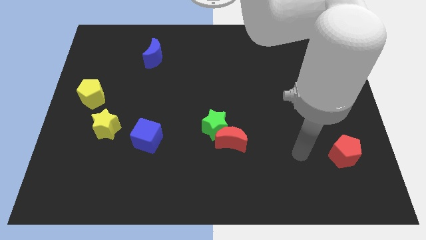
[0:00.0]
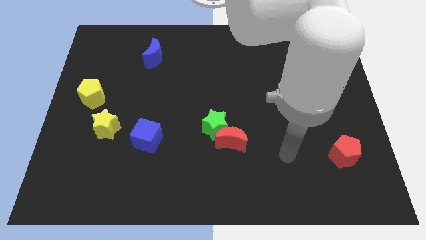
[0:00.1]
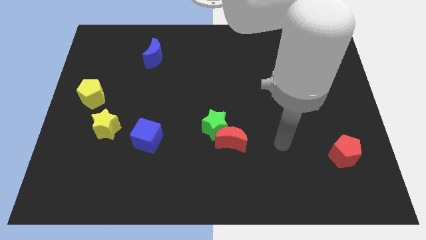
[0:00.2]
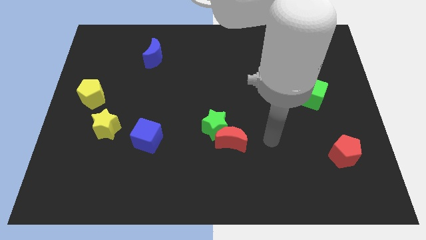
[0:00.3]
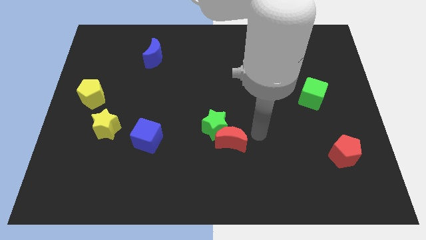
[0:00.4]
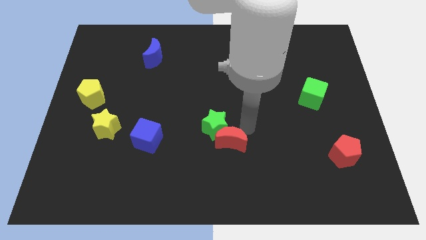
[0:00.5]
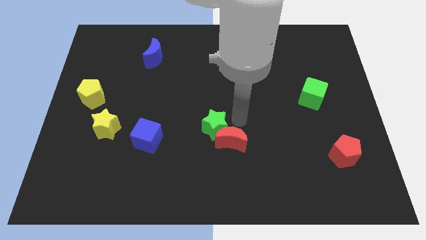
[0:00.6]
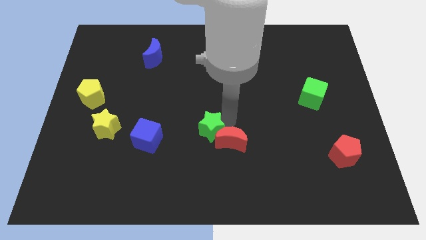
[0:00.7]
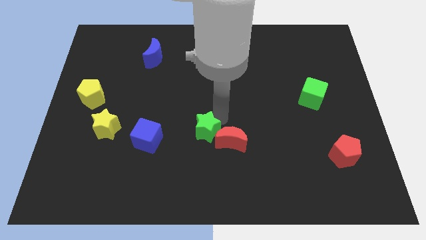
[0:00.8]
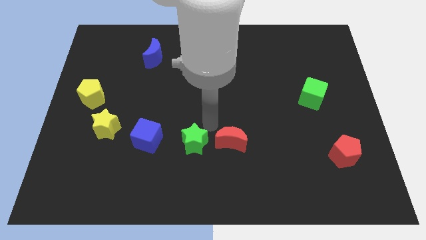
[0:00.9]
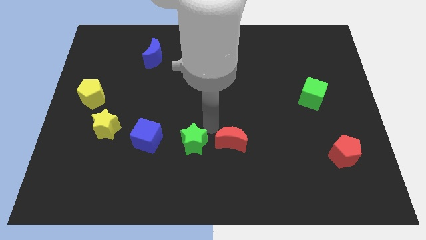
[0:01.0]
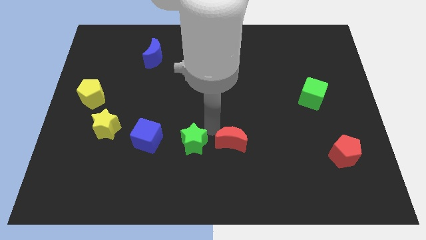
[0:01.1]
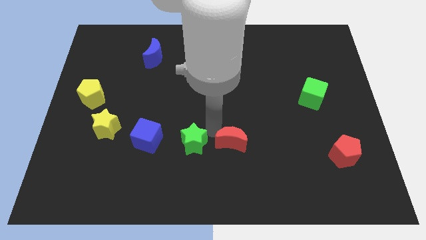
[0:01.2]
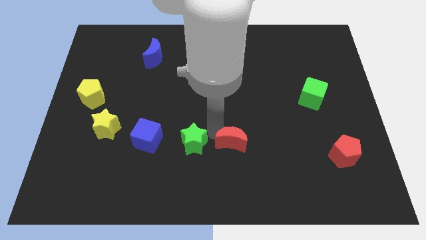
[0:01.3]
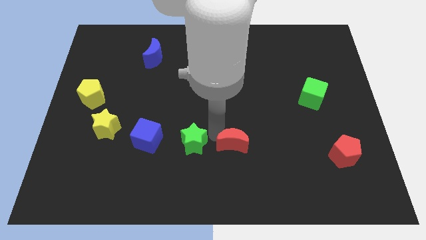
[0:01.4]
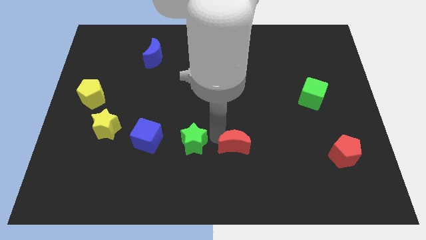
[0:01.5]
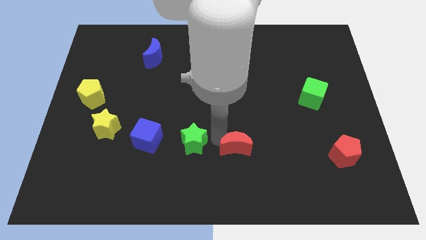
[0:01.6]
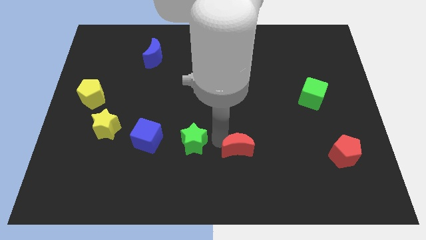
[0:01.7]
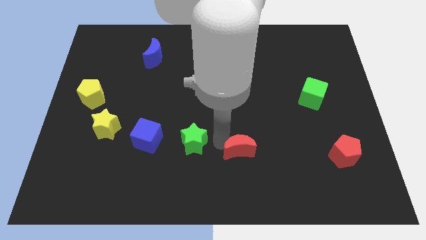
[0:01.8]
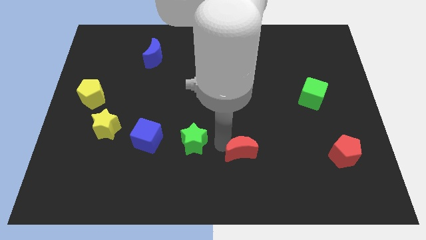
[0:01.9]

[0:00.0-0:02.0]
separate the red moon from the green star

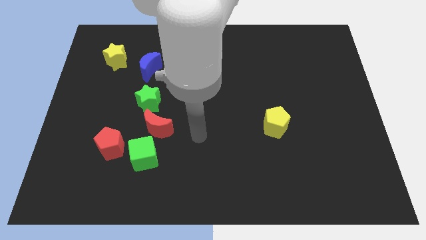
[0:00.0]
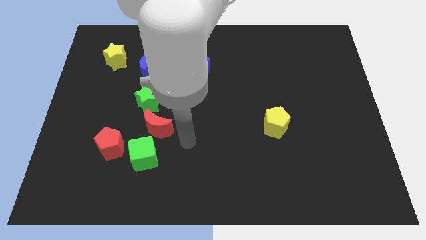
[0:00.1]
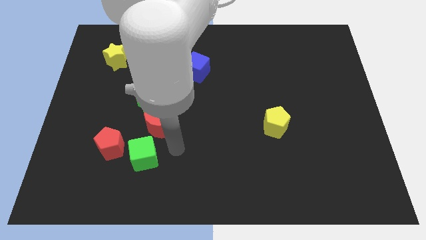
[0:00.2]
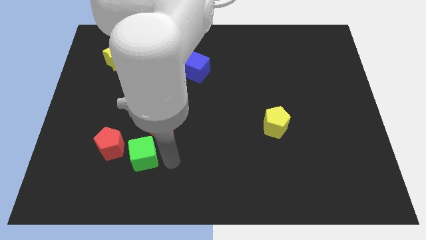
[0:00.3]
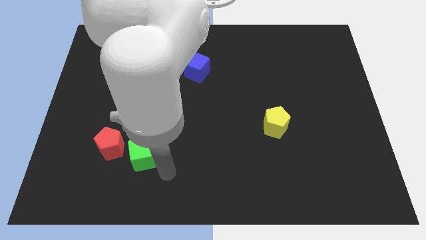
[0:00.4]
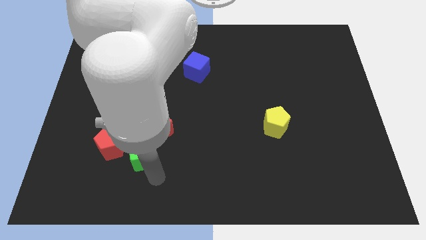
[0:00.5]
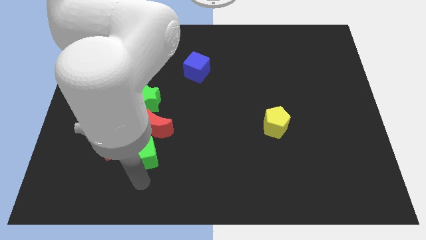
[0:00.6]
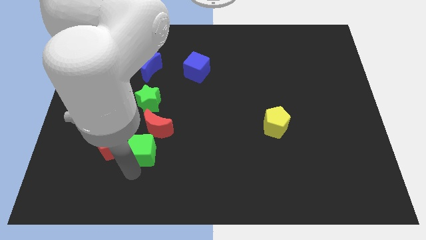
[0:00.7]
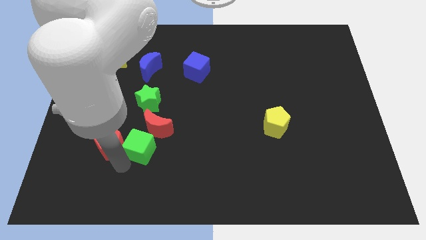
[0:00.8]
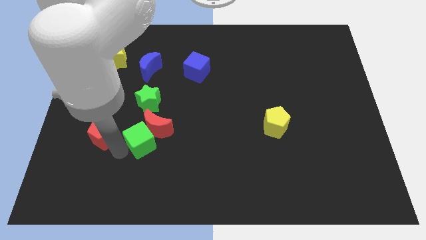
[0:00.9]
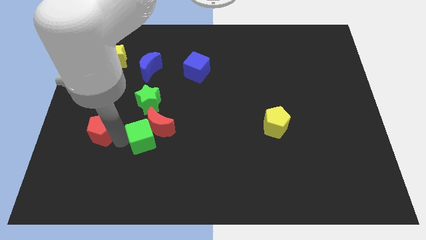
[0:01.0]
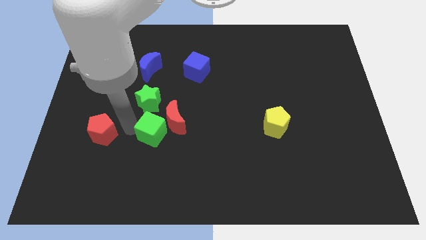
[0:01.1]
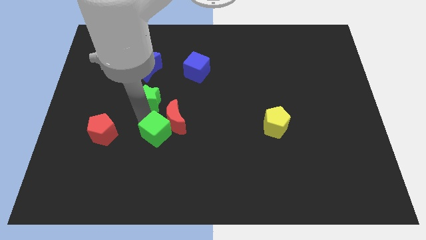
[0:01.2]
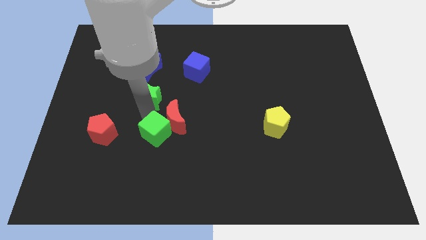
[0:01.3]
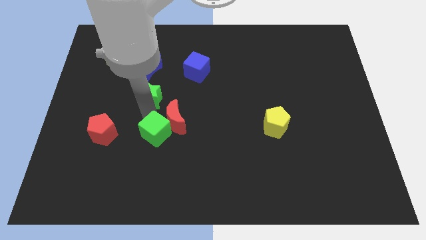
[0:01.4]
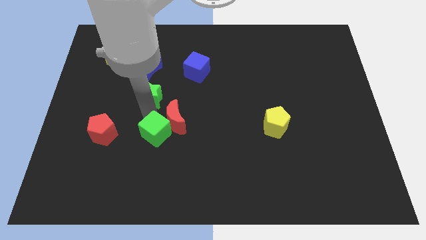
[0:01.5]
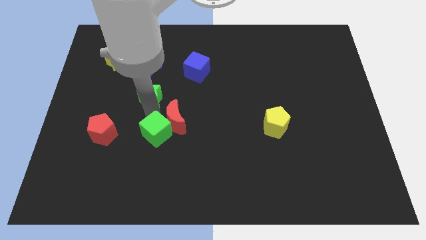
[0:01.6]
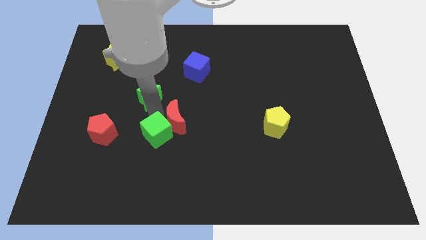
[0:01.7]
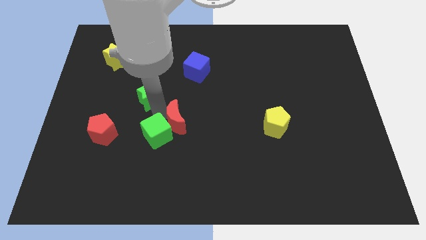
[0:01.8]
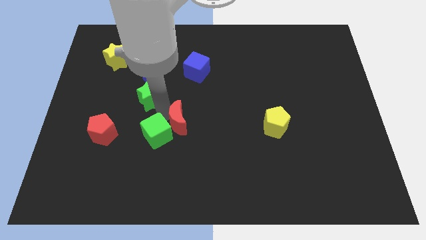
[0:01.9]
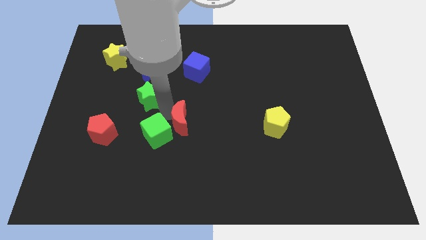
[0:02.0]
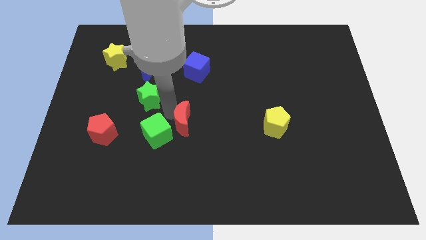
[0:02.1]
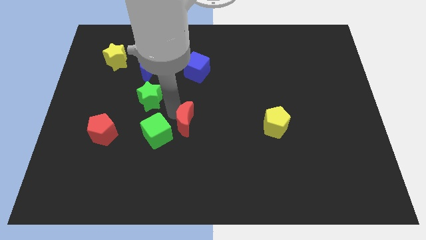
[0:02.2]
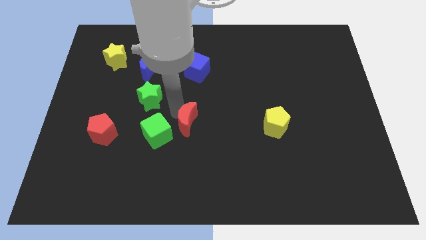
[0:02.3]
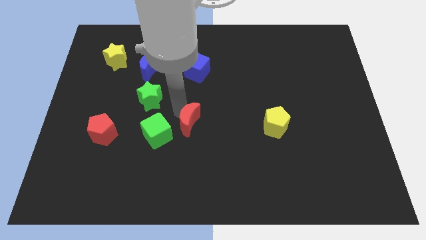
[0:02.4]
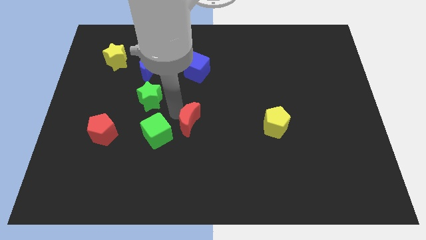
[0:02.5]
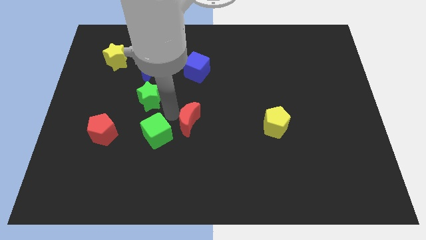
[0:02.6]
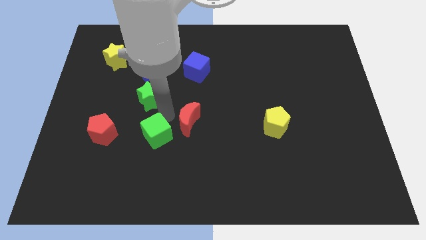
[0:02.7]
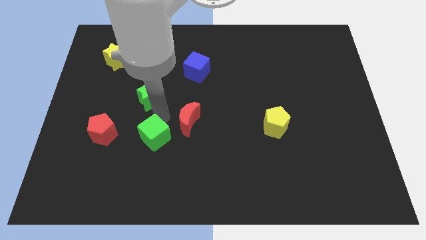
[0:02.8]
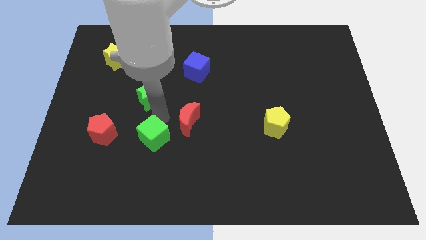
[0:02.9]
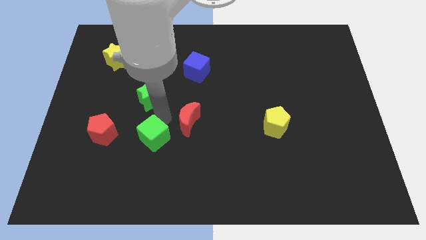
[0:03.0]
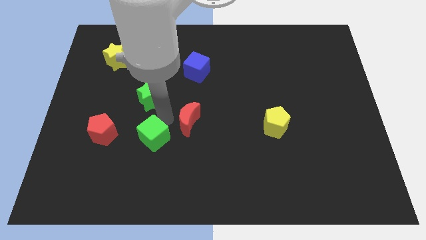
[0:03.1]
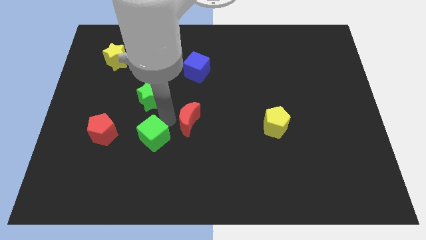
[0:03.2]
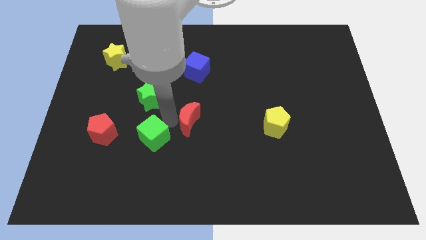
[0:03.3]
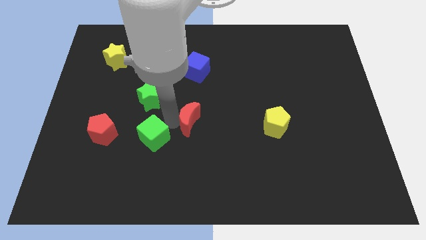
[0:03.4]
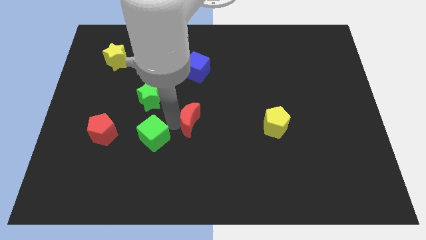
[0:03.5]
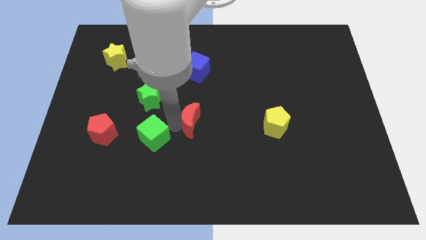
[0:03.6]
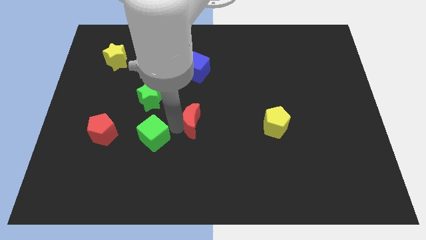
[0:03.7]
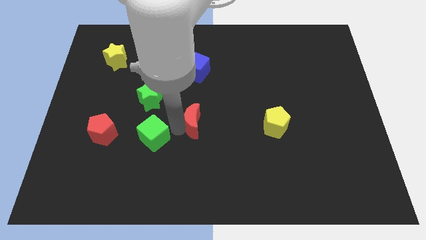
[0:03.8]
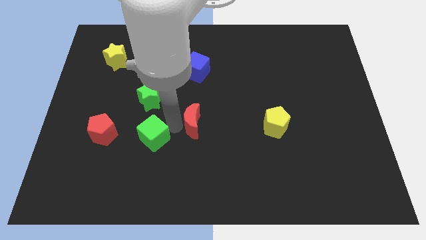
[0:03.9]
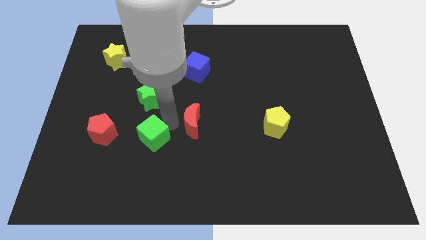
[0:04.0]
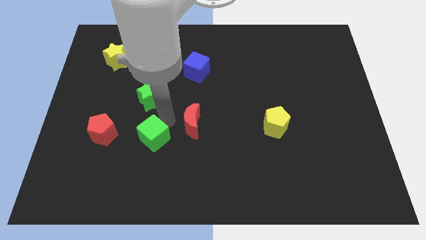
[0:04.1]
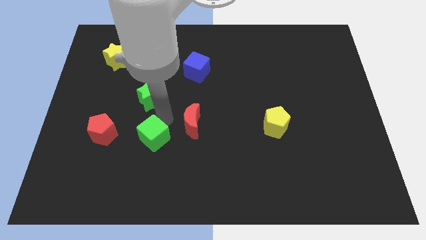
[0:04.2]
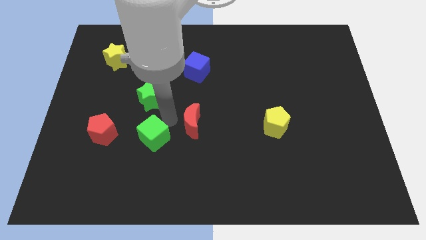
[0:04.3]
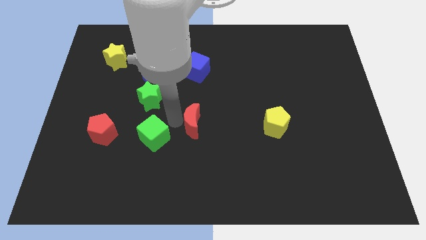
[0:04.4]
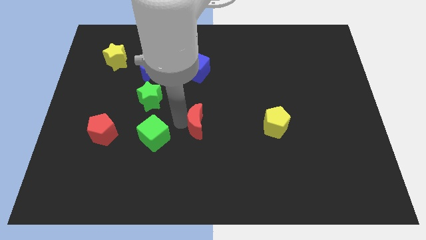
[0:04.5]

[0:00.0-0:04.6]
separate the red moon from the green cube and green star

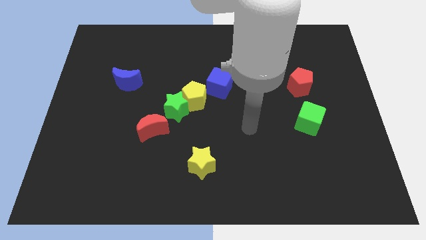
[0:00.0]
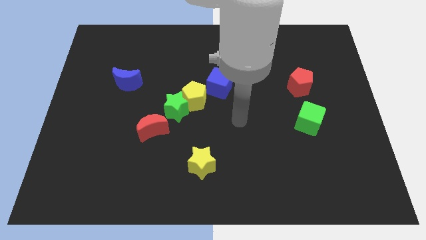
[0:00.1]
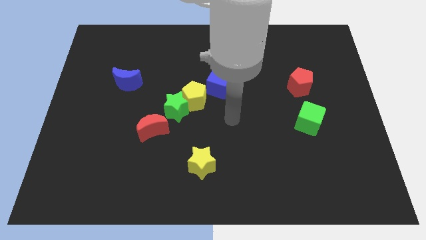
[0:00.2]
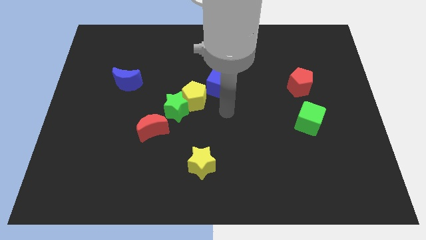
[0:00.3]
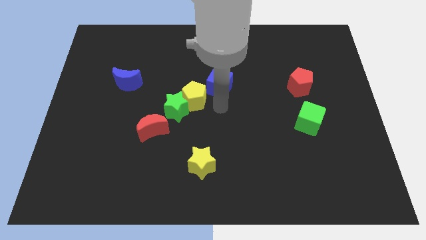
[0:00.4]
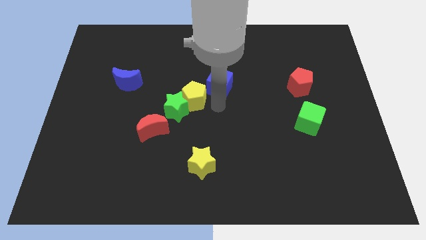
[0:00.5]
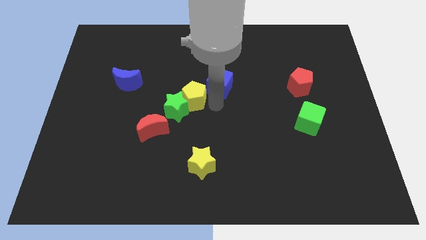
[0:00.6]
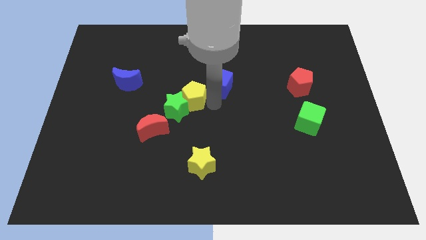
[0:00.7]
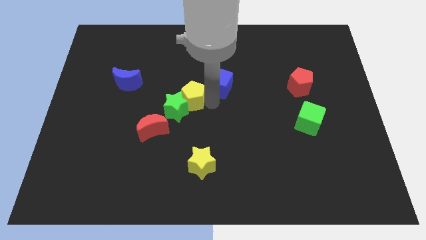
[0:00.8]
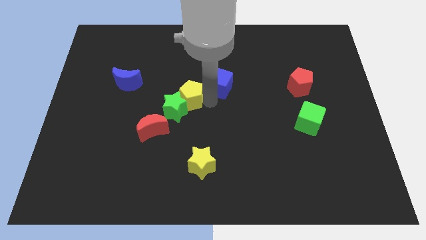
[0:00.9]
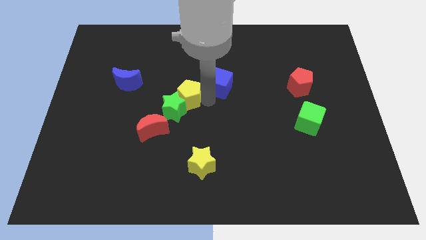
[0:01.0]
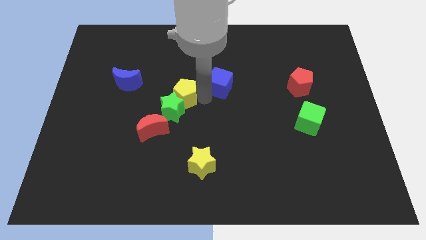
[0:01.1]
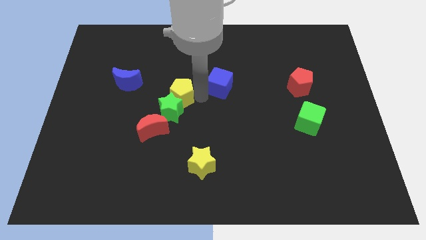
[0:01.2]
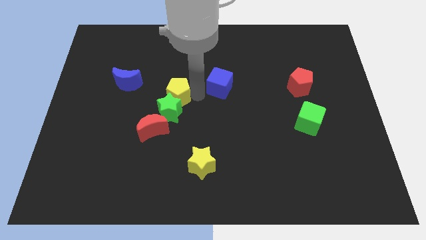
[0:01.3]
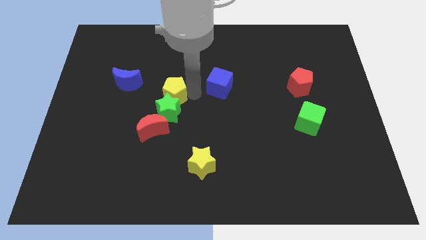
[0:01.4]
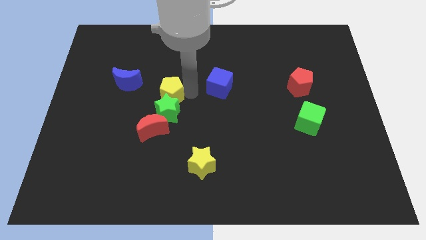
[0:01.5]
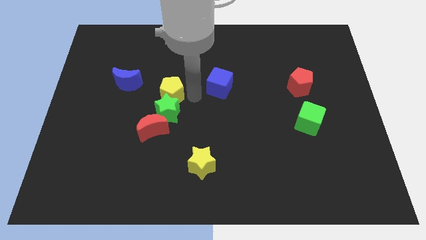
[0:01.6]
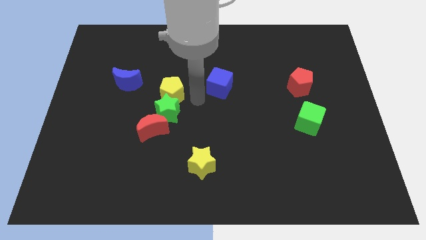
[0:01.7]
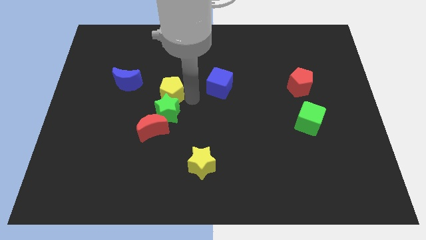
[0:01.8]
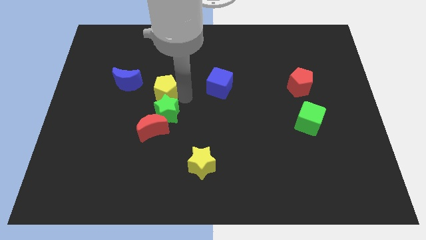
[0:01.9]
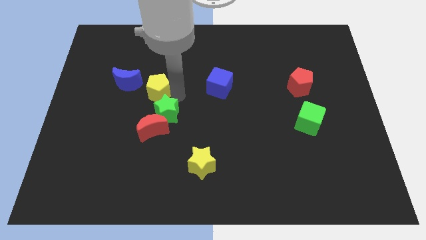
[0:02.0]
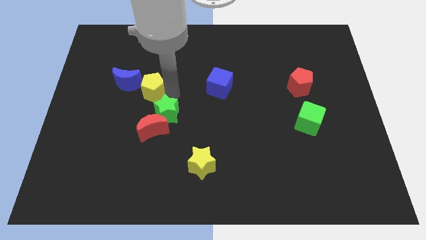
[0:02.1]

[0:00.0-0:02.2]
separate the yellow pentagon from the green star and blue cube

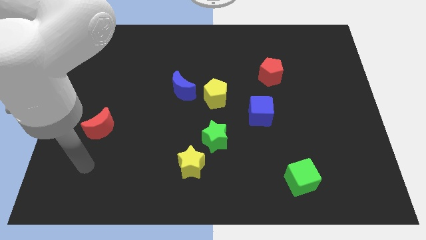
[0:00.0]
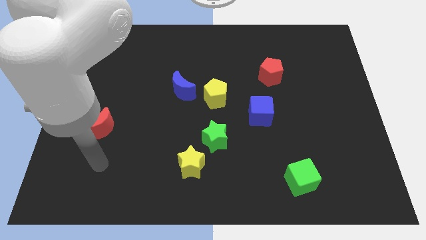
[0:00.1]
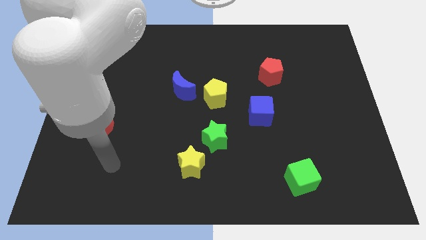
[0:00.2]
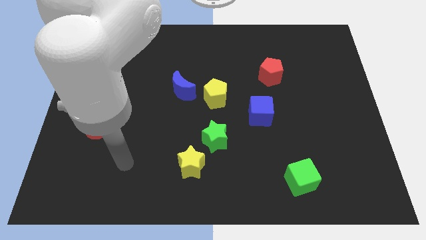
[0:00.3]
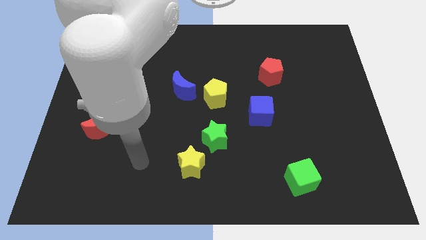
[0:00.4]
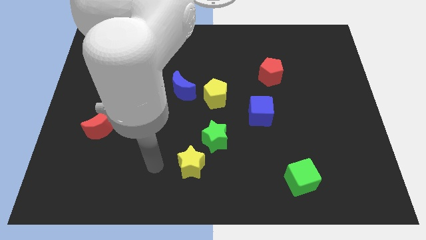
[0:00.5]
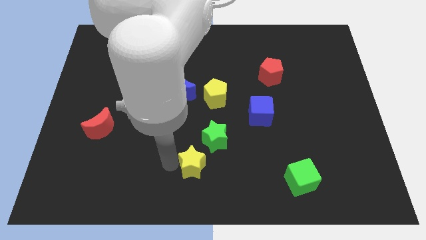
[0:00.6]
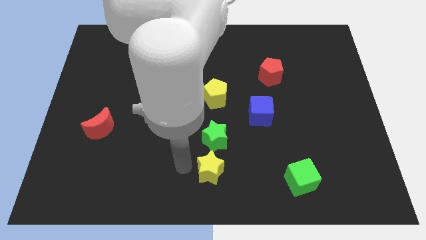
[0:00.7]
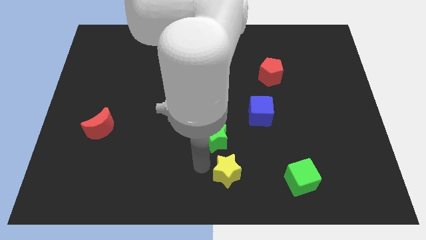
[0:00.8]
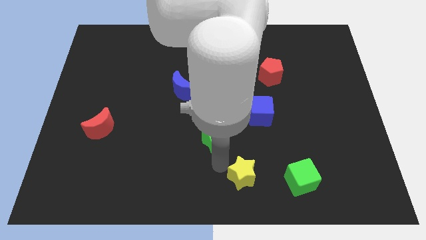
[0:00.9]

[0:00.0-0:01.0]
move the green star away from the yellow star
